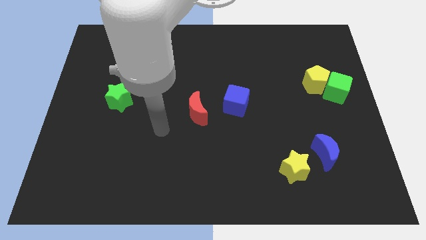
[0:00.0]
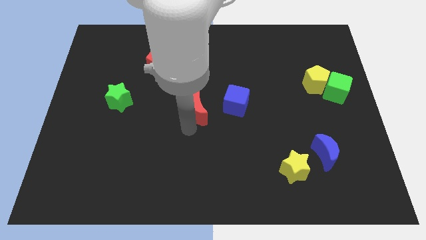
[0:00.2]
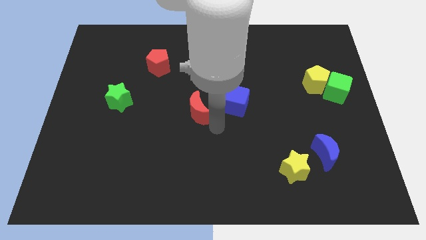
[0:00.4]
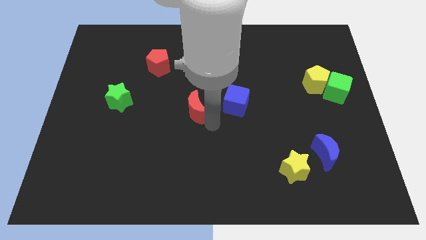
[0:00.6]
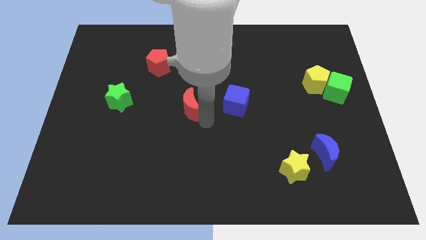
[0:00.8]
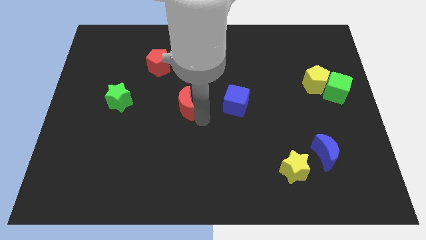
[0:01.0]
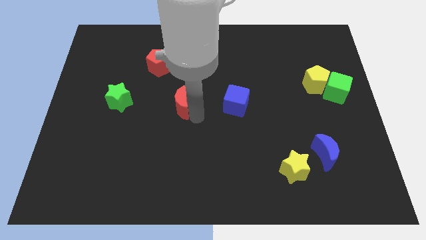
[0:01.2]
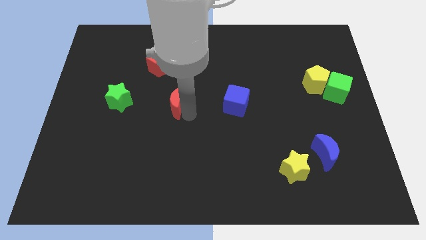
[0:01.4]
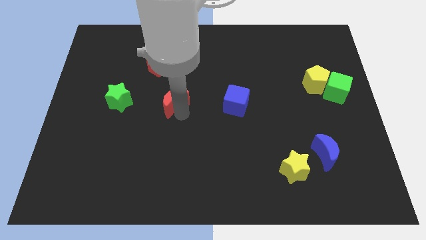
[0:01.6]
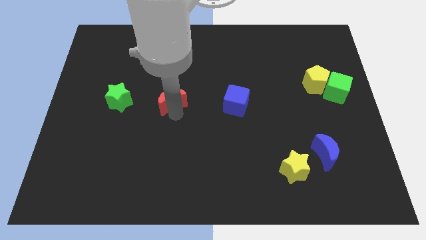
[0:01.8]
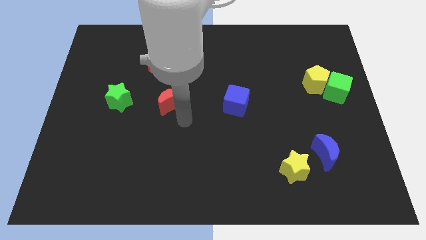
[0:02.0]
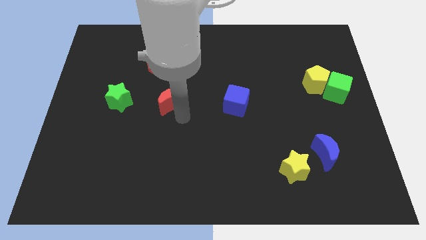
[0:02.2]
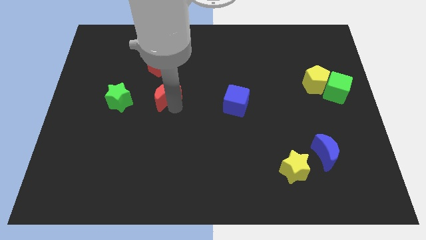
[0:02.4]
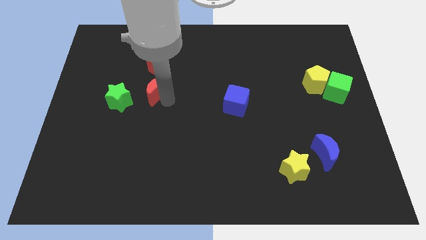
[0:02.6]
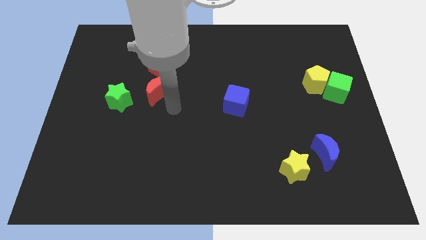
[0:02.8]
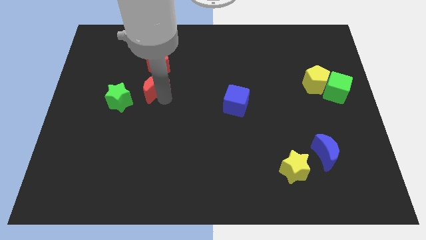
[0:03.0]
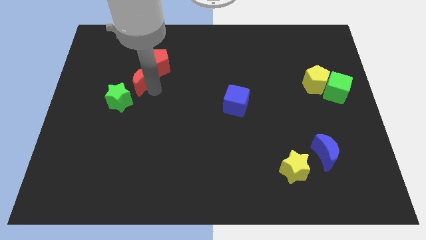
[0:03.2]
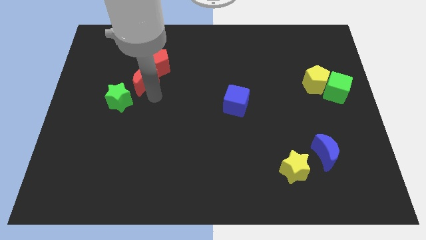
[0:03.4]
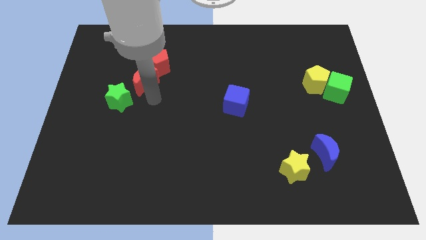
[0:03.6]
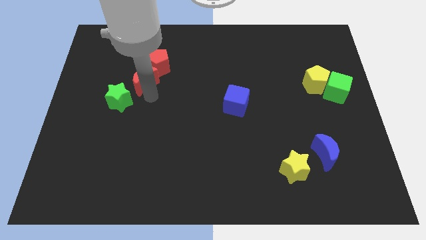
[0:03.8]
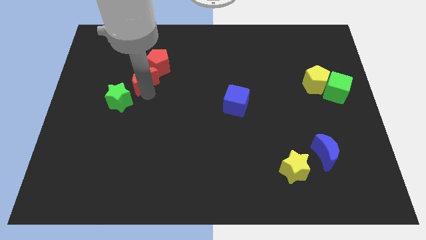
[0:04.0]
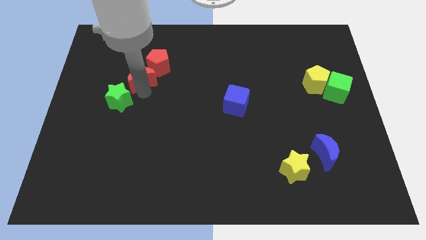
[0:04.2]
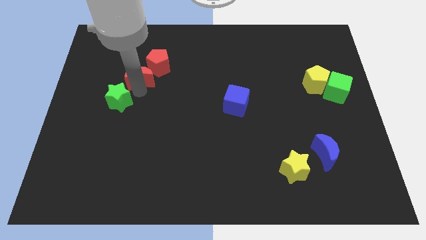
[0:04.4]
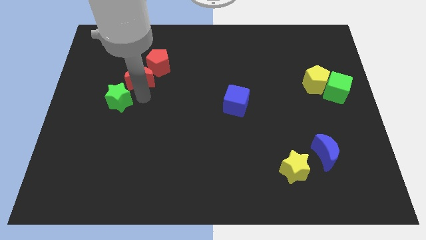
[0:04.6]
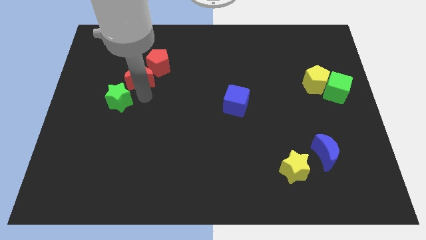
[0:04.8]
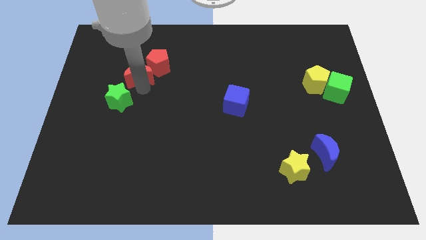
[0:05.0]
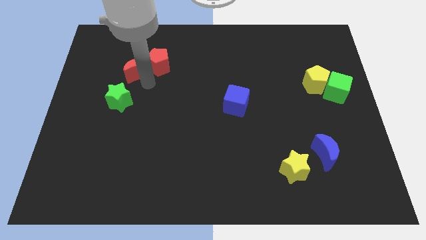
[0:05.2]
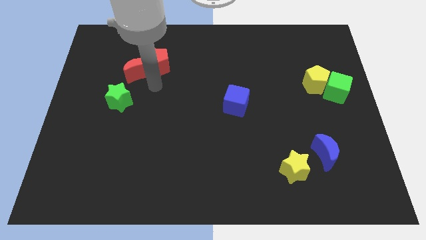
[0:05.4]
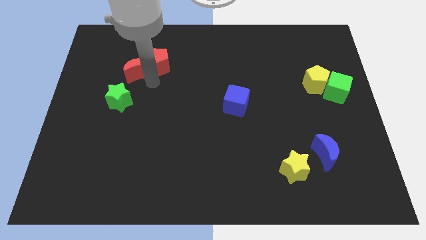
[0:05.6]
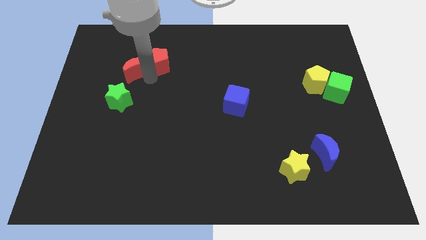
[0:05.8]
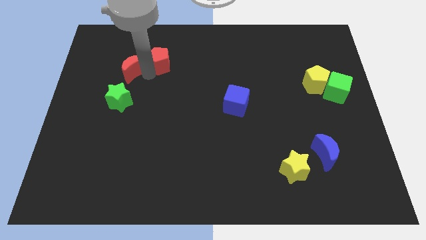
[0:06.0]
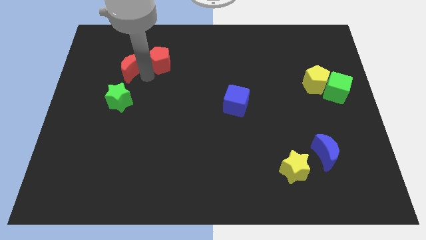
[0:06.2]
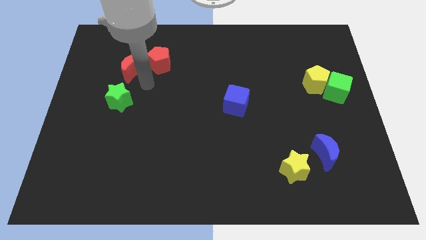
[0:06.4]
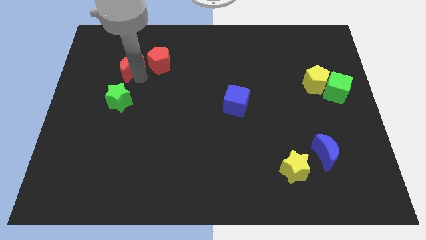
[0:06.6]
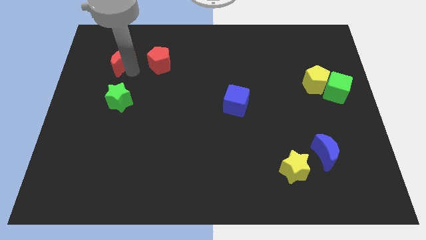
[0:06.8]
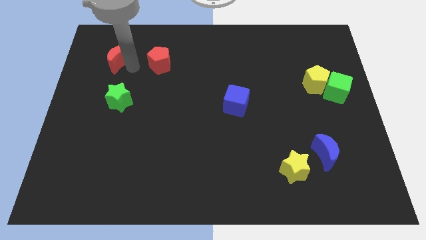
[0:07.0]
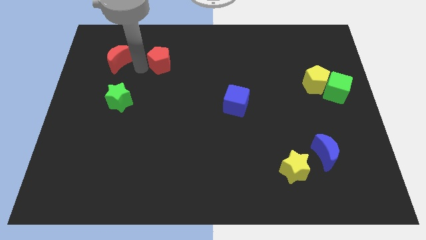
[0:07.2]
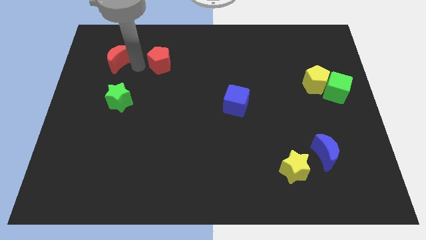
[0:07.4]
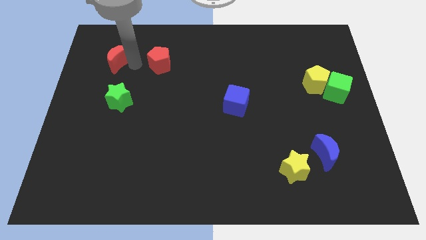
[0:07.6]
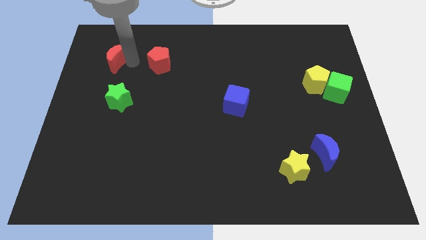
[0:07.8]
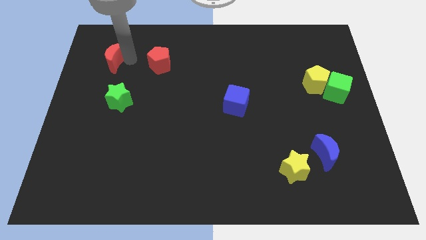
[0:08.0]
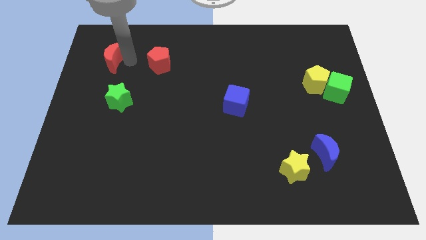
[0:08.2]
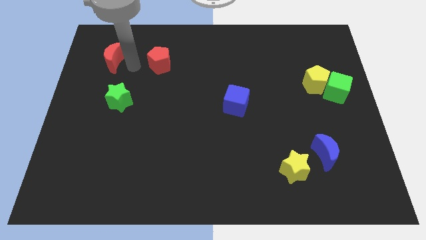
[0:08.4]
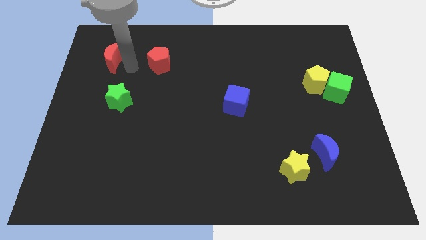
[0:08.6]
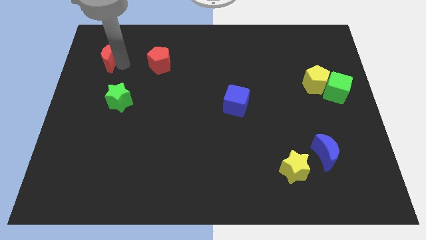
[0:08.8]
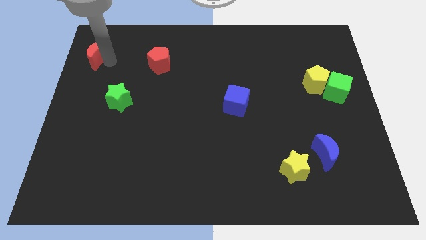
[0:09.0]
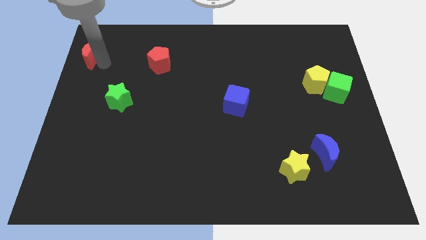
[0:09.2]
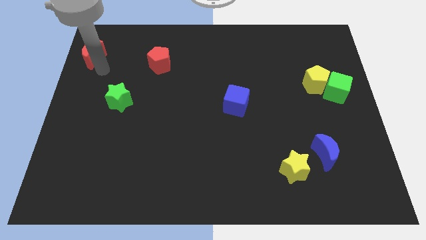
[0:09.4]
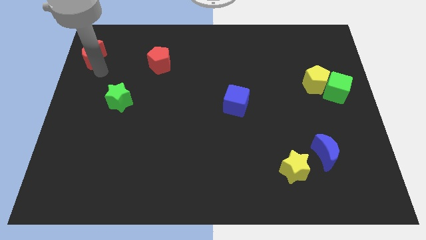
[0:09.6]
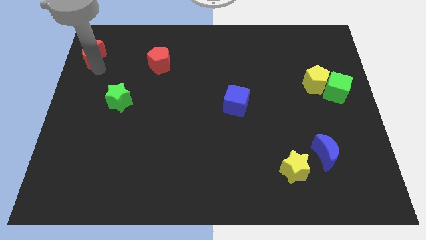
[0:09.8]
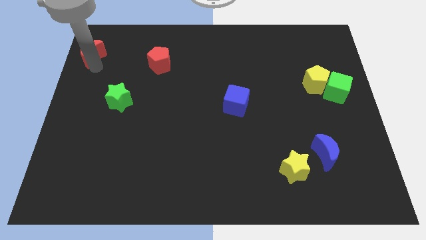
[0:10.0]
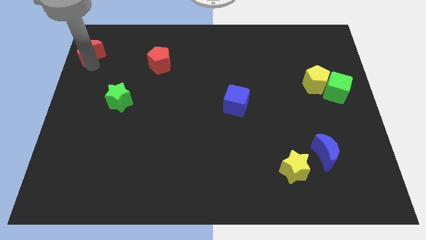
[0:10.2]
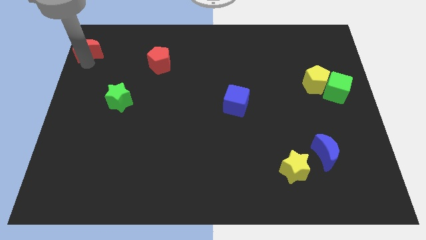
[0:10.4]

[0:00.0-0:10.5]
push the red moon to the top left of the board

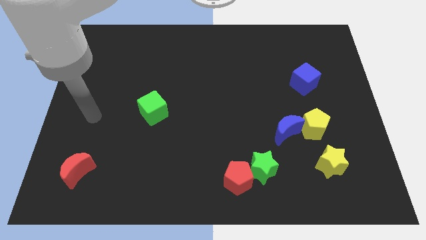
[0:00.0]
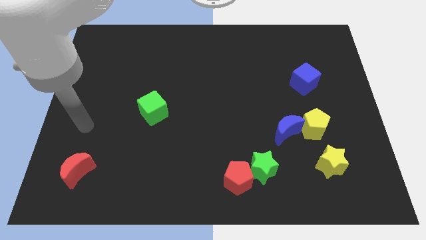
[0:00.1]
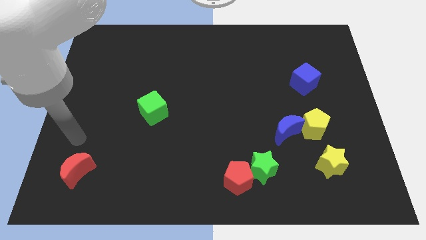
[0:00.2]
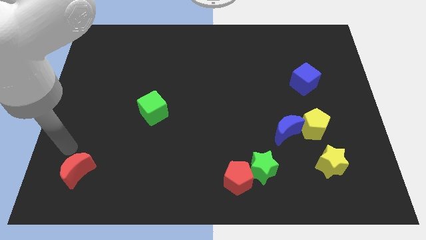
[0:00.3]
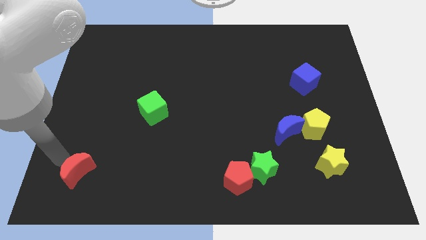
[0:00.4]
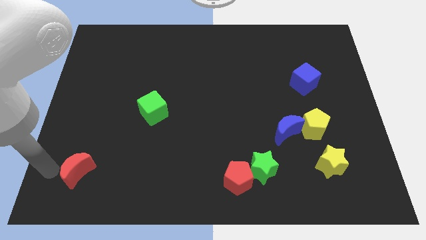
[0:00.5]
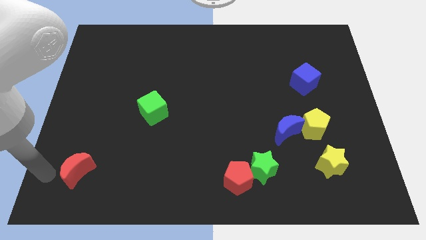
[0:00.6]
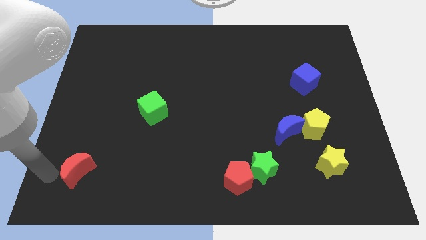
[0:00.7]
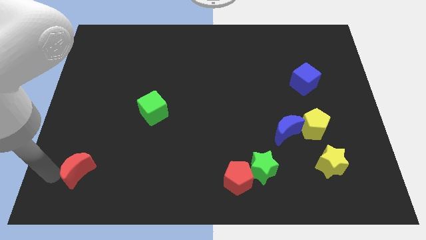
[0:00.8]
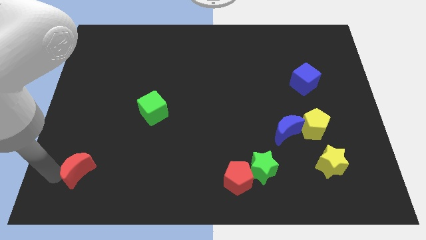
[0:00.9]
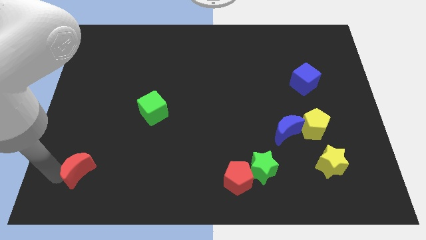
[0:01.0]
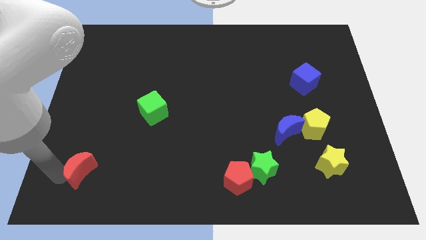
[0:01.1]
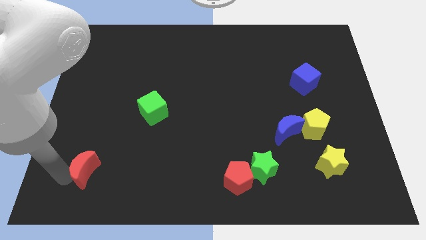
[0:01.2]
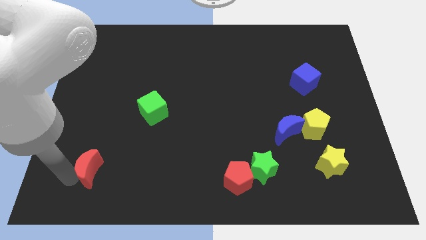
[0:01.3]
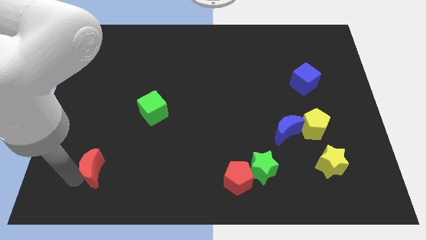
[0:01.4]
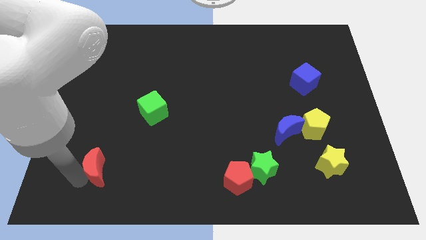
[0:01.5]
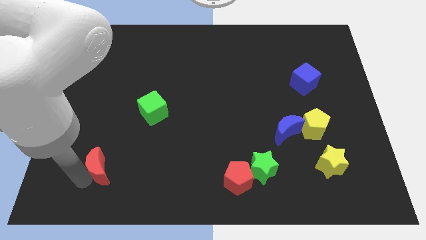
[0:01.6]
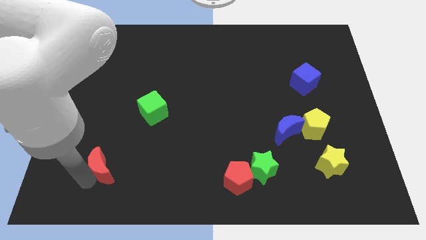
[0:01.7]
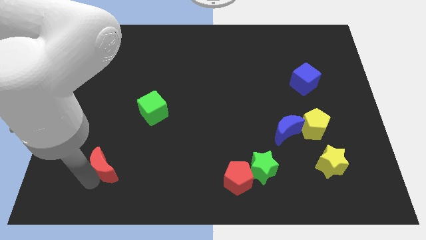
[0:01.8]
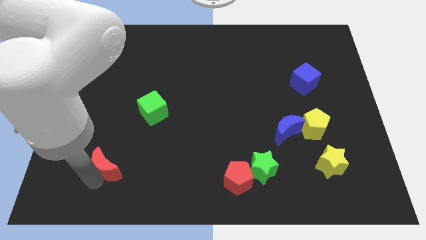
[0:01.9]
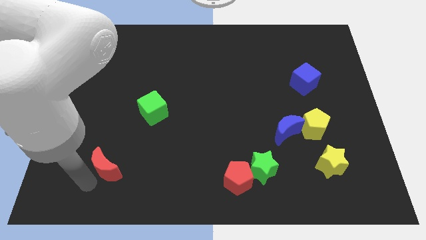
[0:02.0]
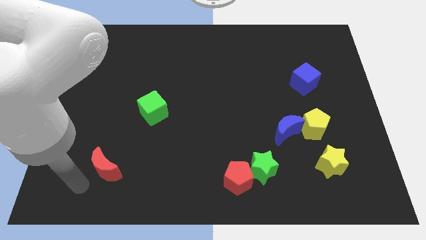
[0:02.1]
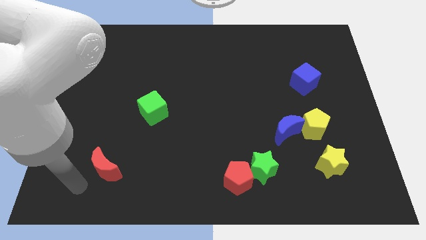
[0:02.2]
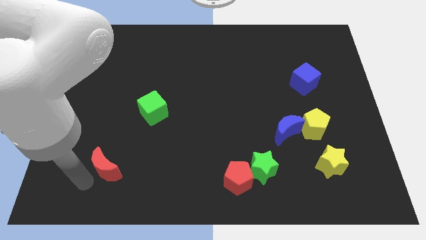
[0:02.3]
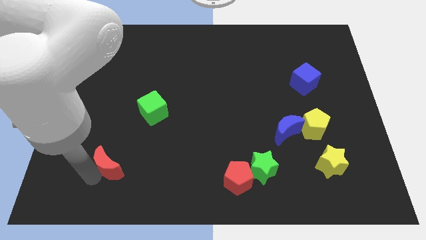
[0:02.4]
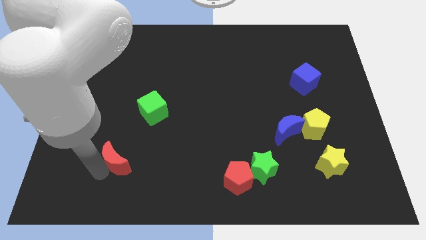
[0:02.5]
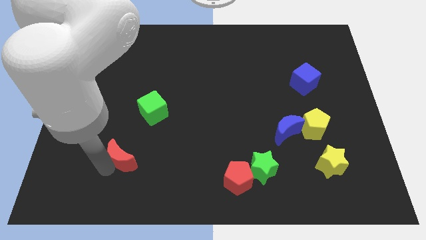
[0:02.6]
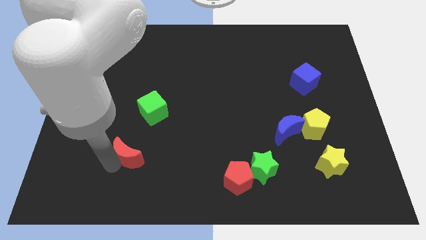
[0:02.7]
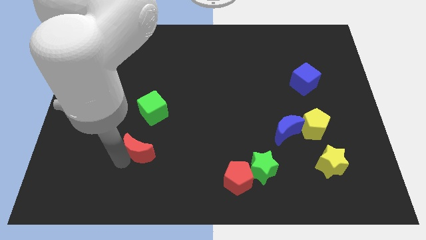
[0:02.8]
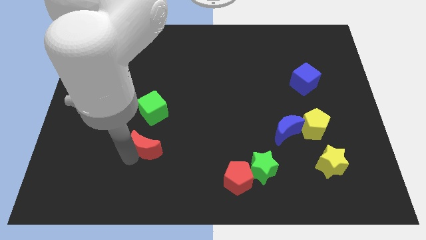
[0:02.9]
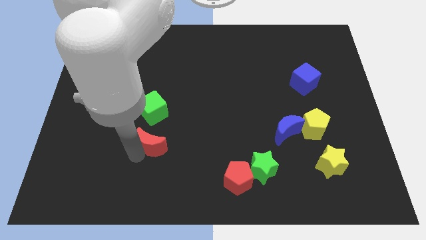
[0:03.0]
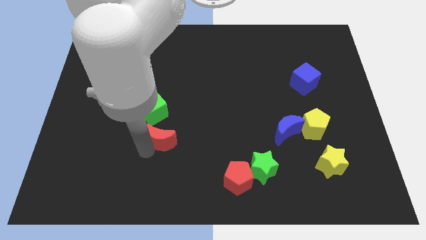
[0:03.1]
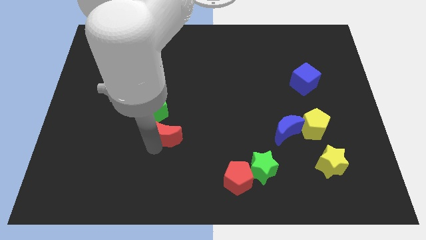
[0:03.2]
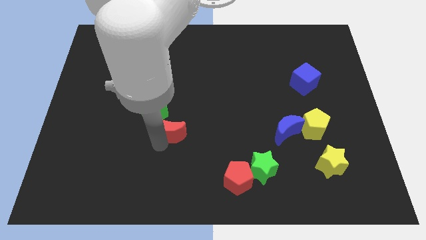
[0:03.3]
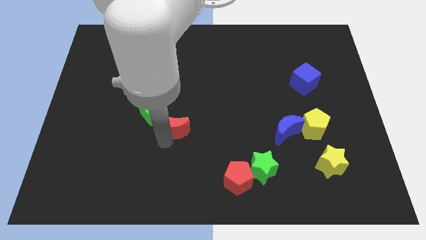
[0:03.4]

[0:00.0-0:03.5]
push the red moon to the center
